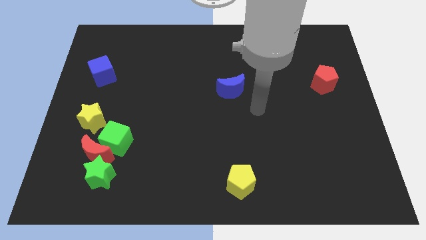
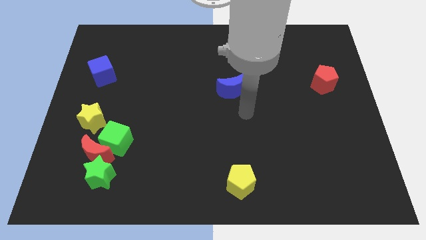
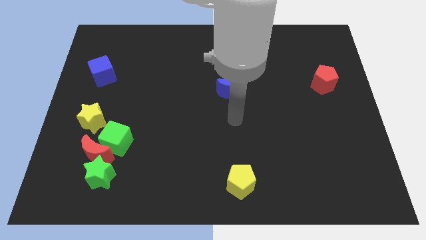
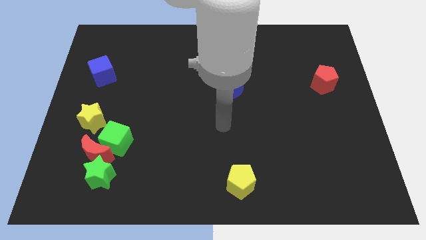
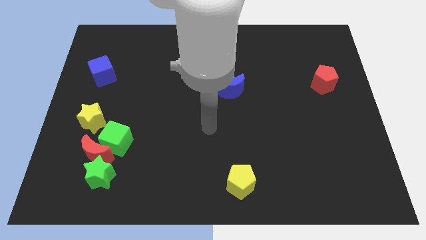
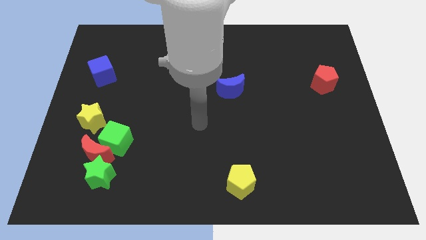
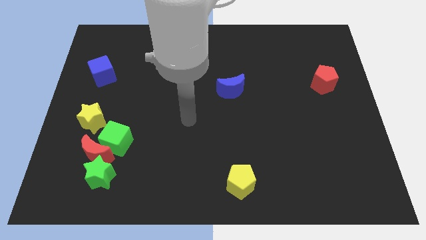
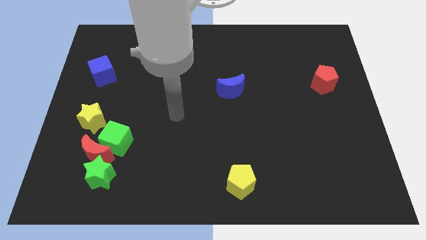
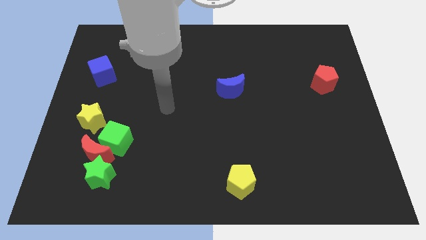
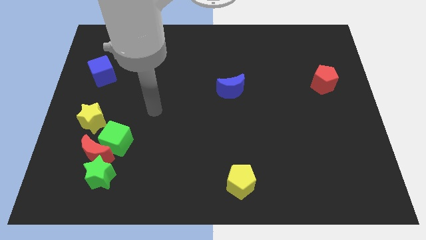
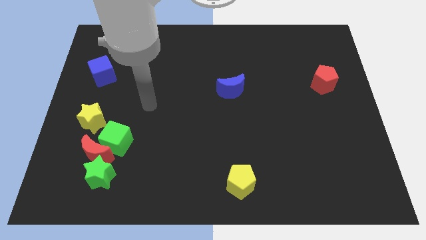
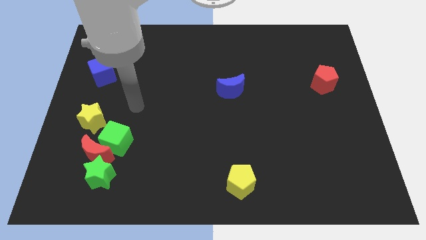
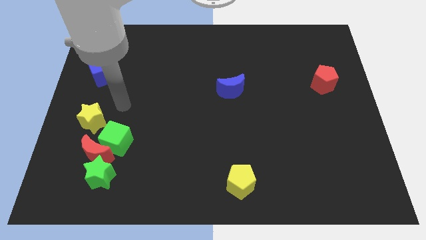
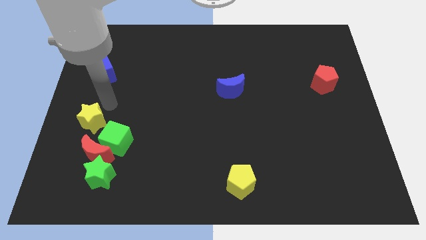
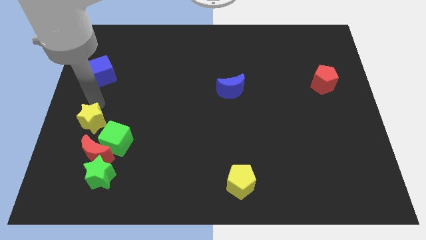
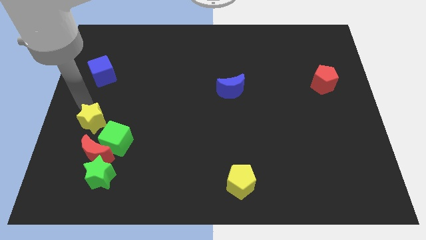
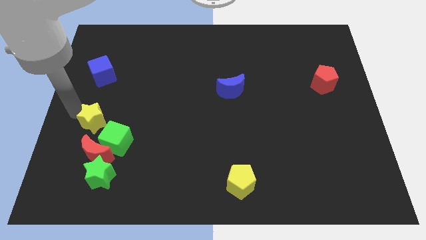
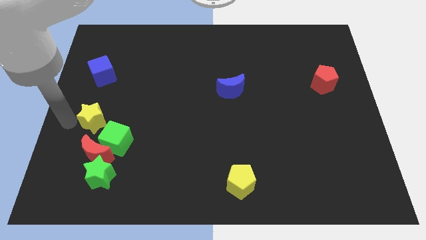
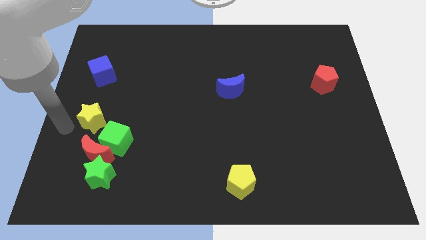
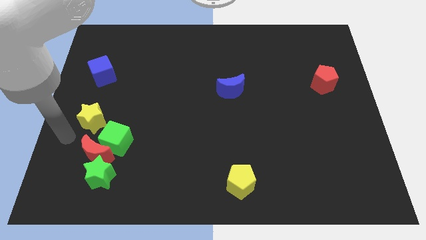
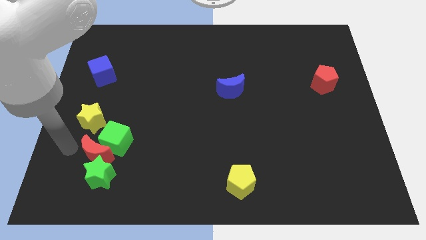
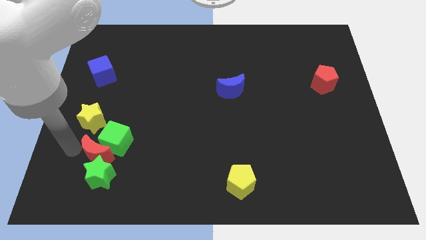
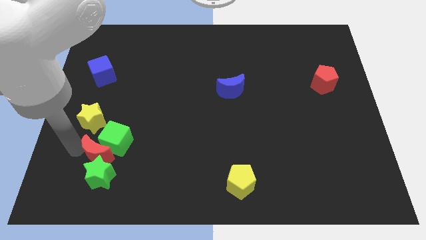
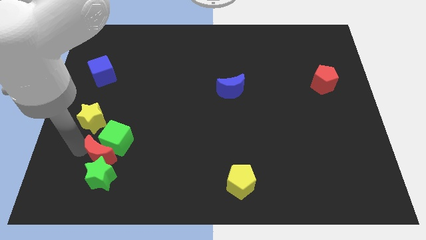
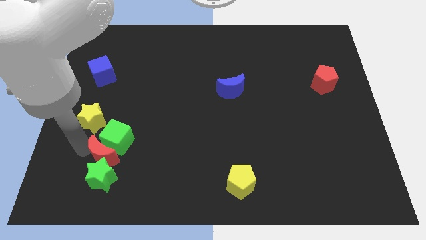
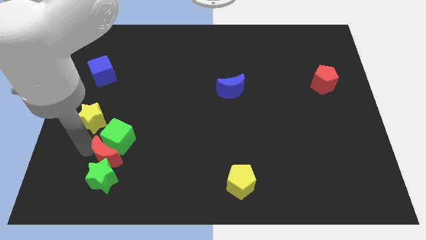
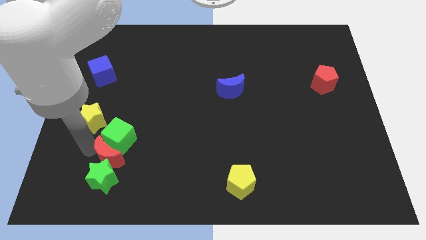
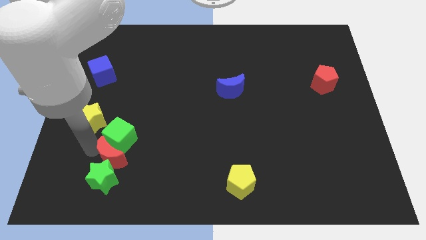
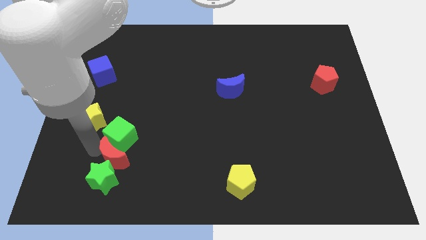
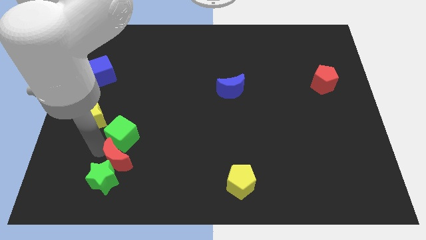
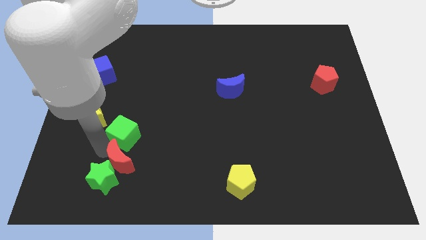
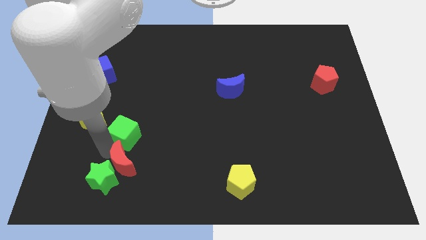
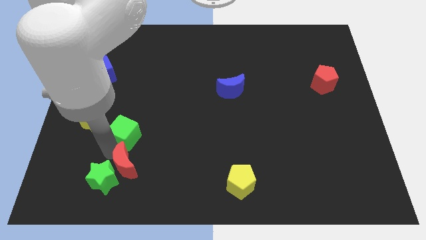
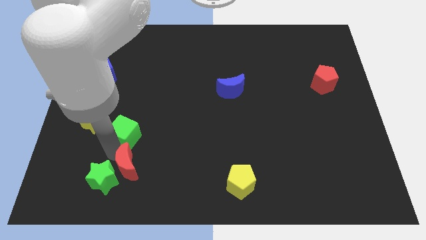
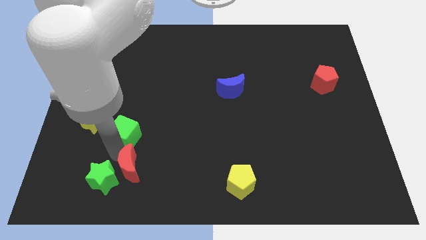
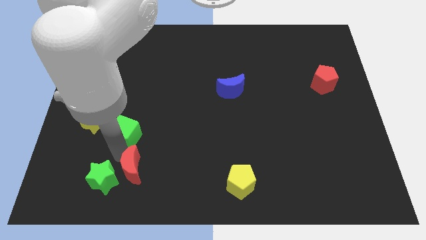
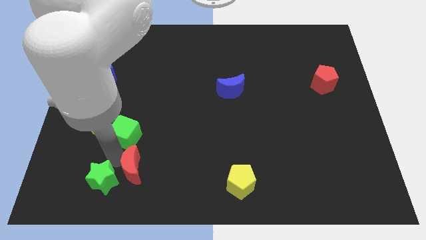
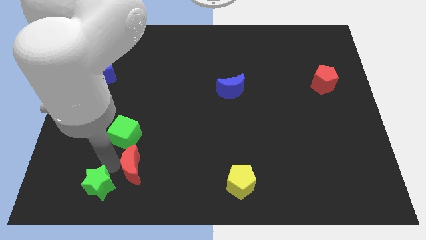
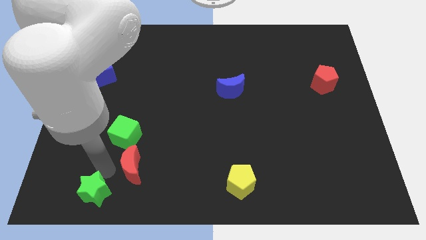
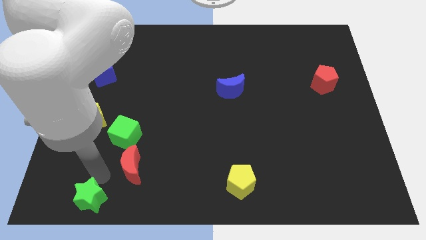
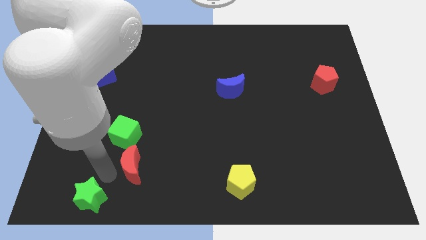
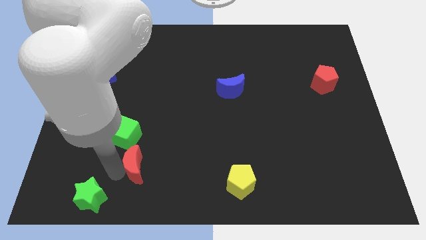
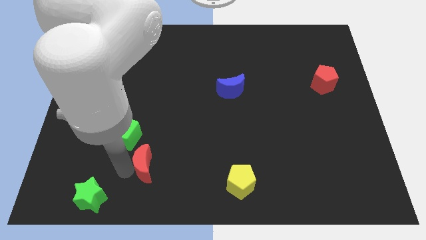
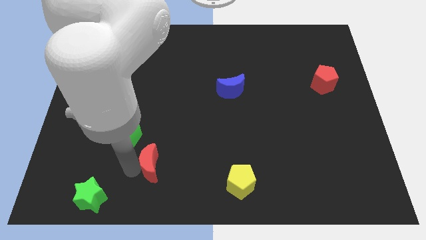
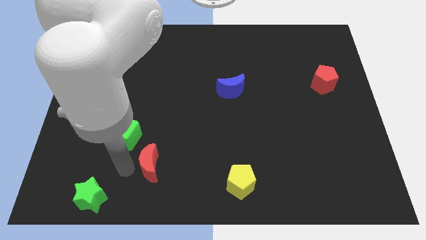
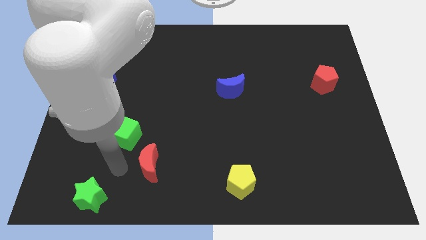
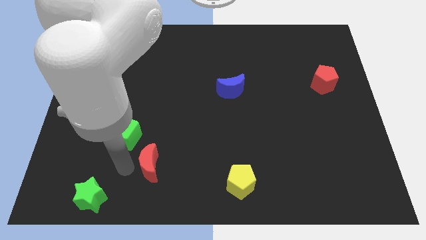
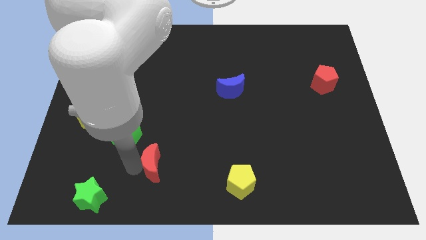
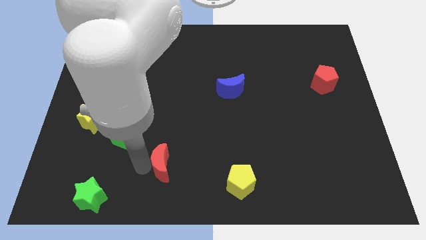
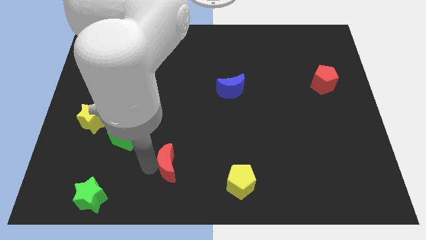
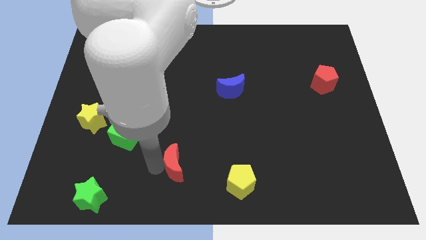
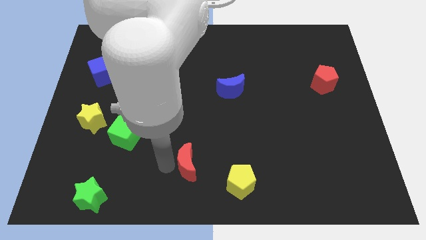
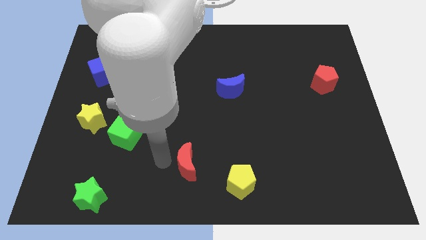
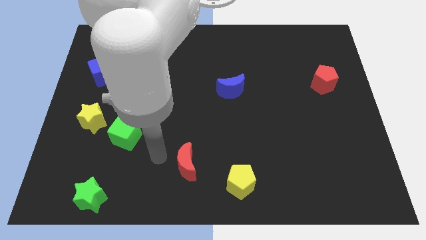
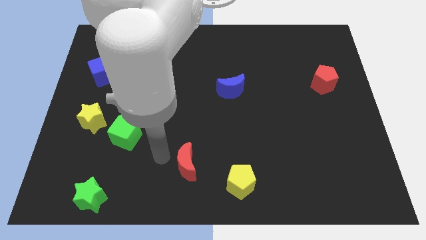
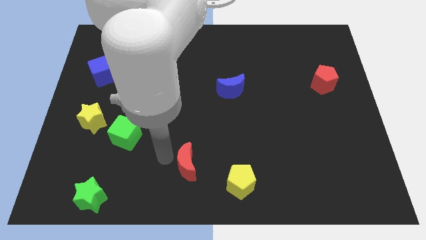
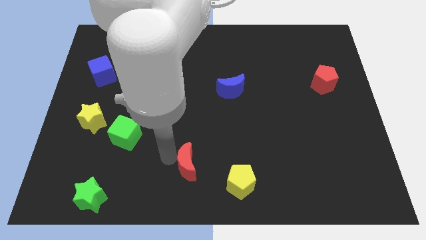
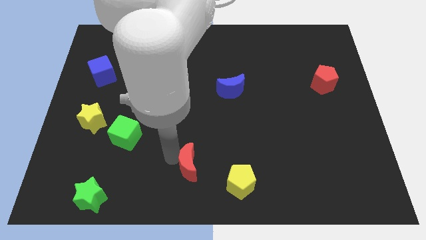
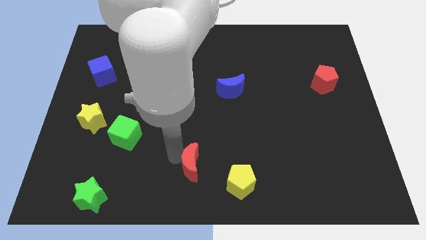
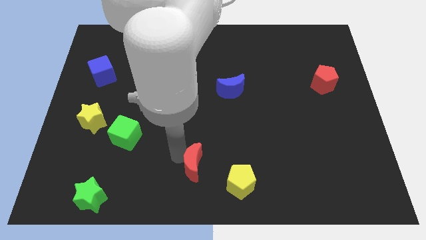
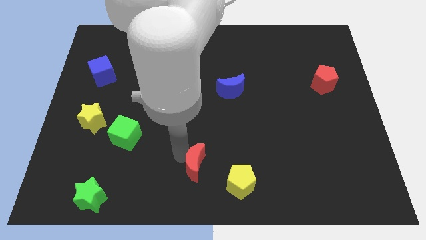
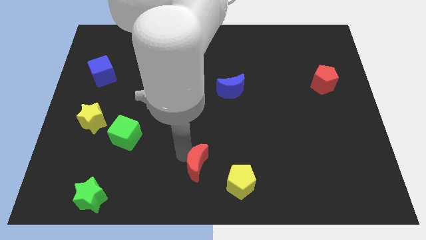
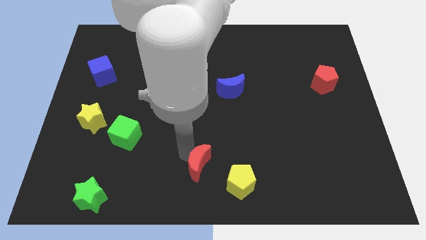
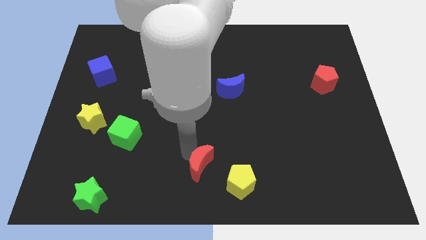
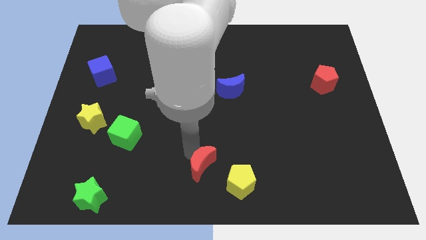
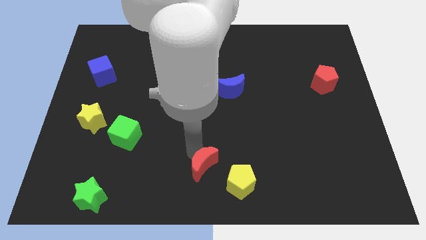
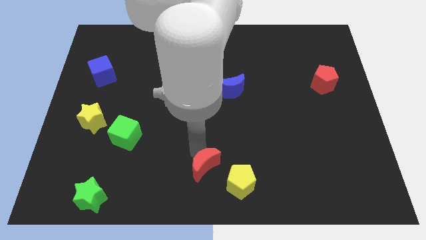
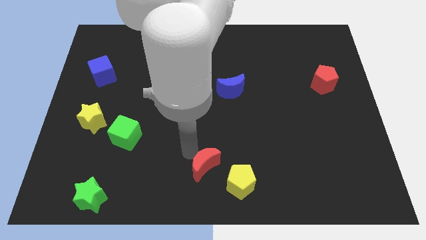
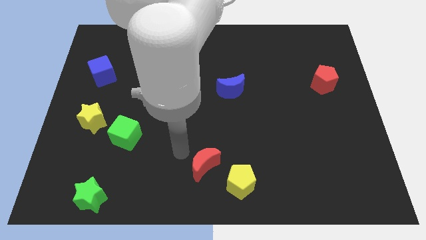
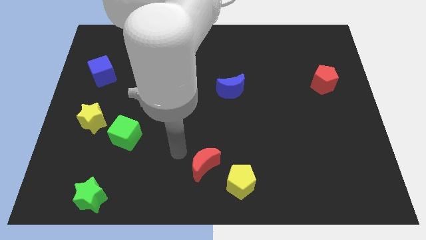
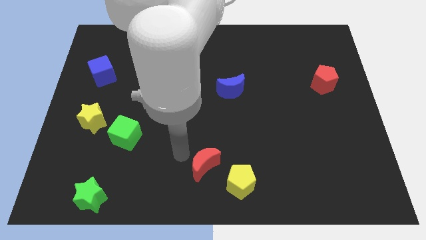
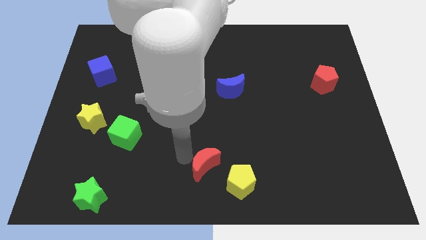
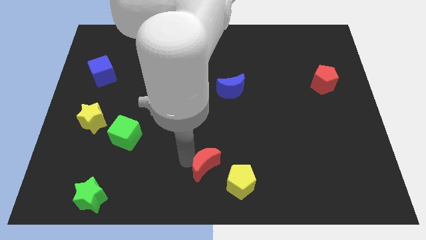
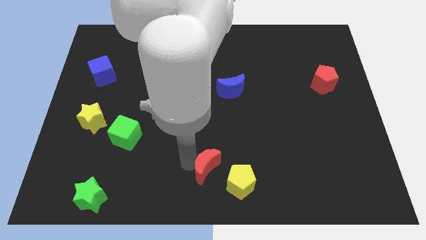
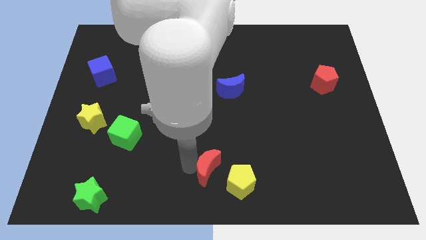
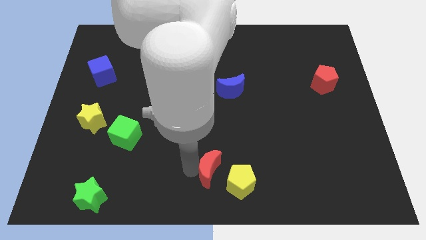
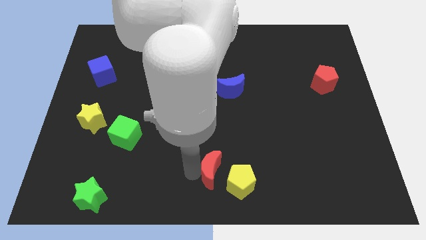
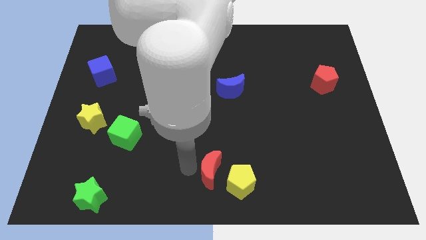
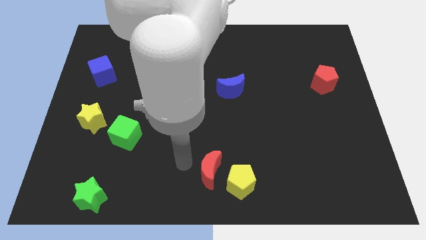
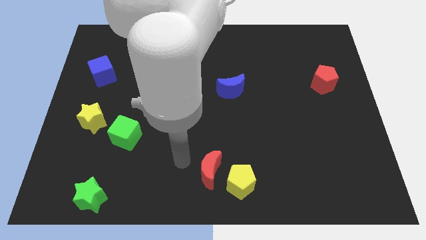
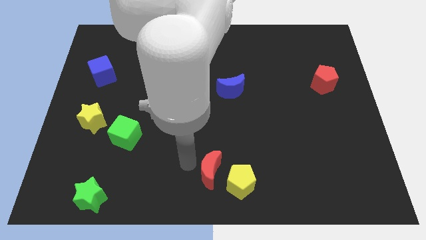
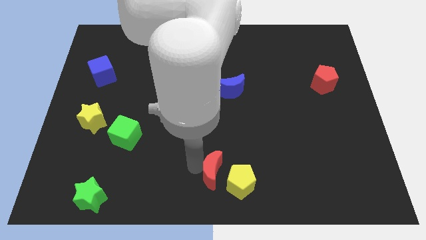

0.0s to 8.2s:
push the red moon close to the yellow pentagon
